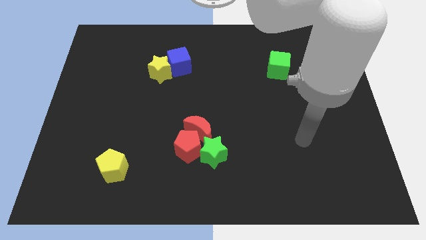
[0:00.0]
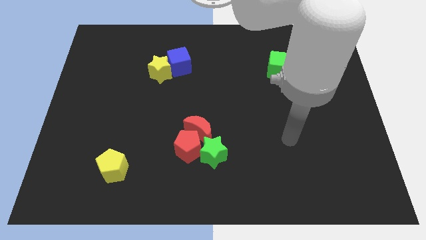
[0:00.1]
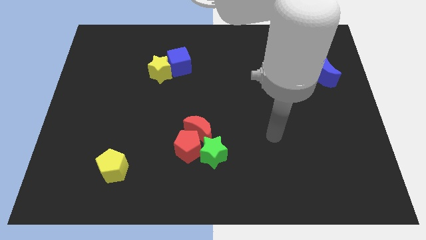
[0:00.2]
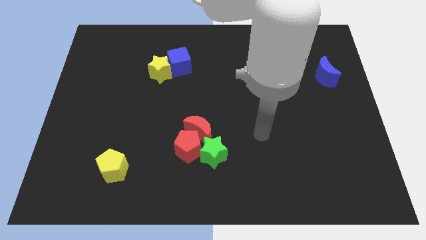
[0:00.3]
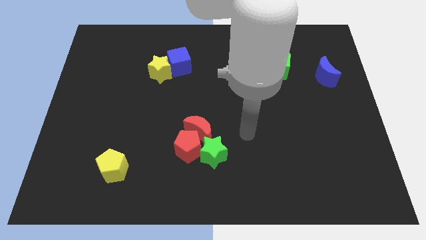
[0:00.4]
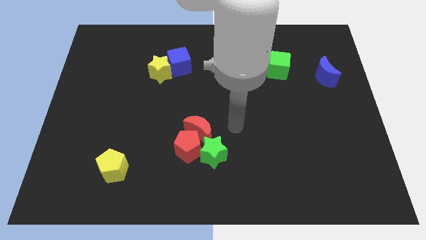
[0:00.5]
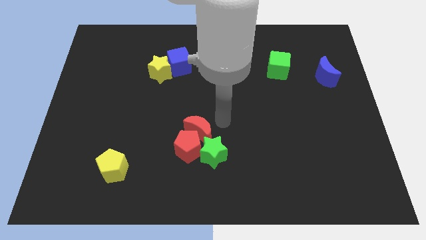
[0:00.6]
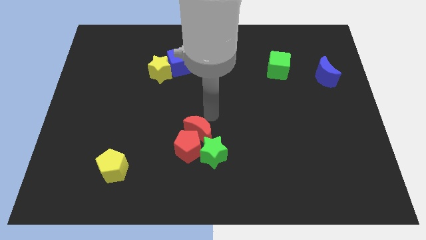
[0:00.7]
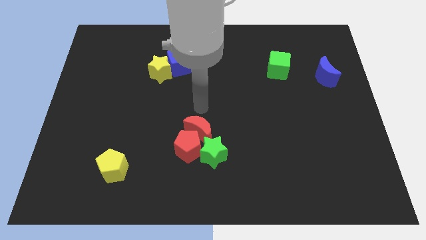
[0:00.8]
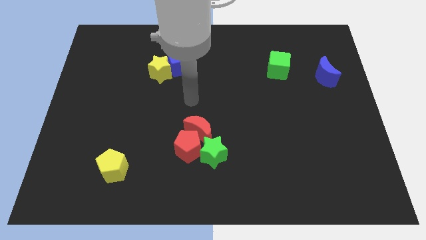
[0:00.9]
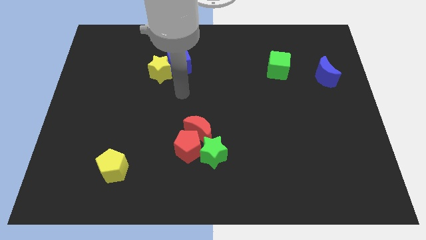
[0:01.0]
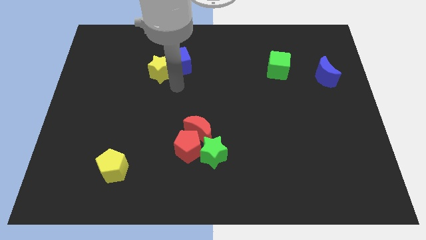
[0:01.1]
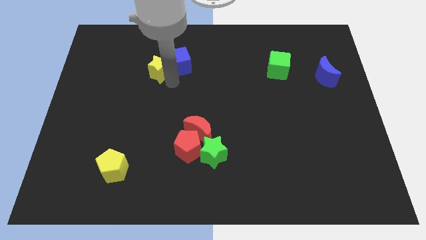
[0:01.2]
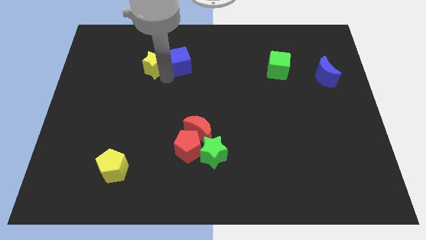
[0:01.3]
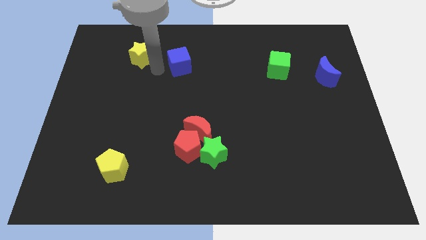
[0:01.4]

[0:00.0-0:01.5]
pull the blue cube apart from the yellow star

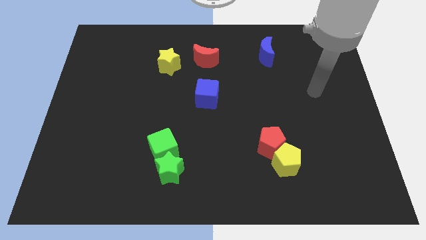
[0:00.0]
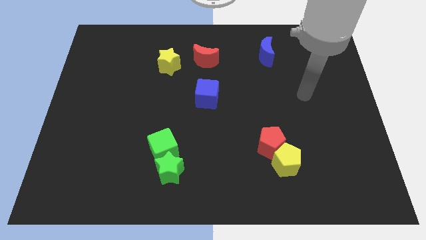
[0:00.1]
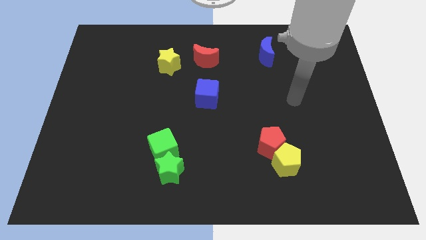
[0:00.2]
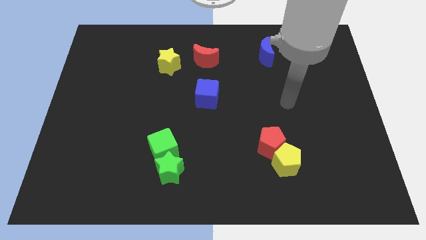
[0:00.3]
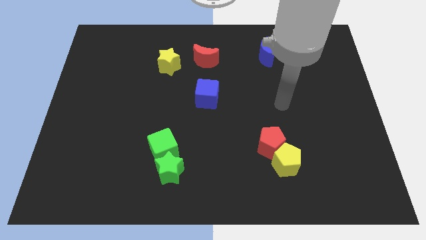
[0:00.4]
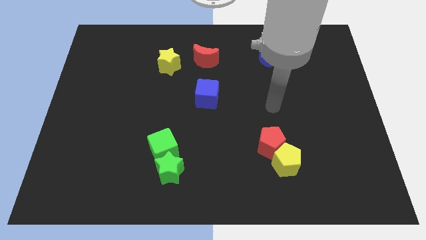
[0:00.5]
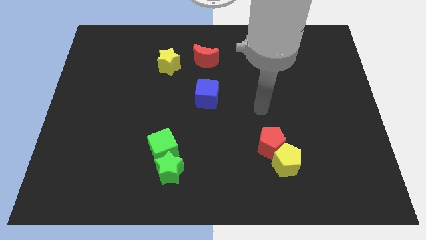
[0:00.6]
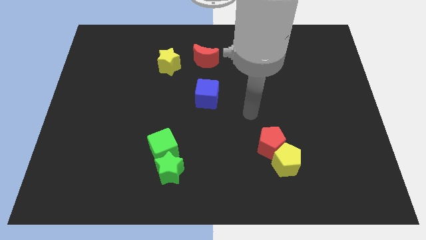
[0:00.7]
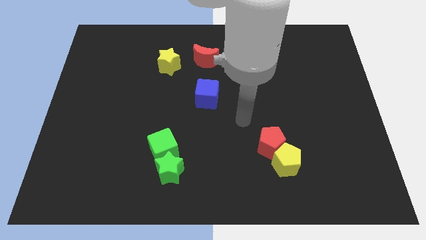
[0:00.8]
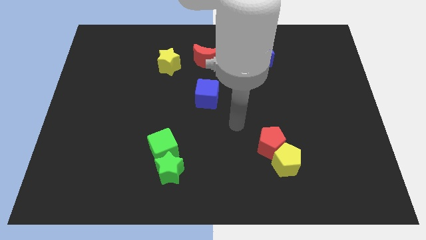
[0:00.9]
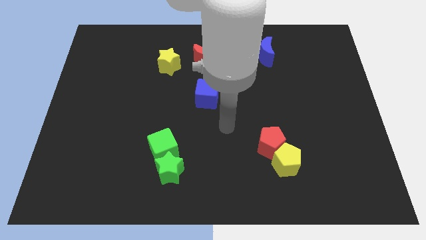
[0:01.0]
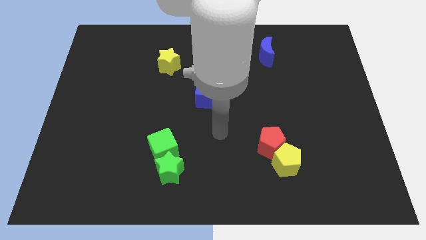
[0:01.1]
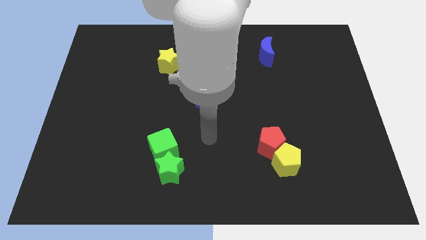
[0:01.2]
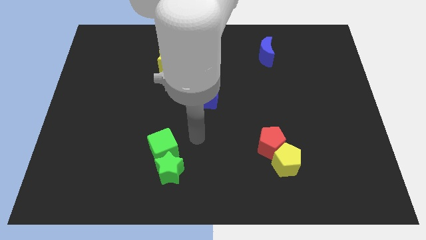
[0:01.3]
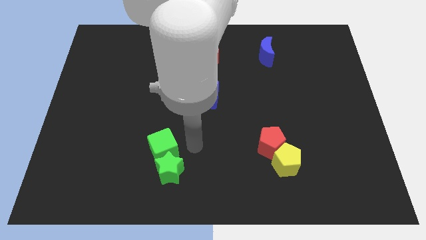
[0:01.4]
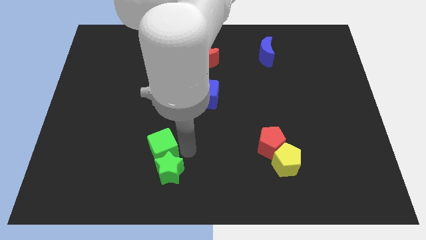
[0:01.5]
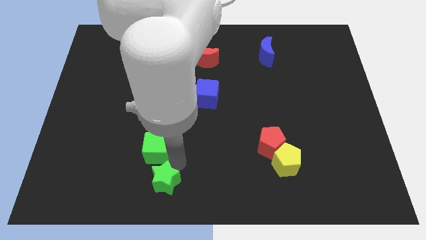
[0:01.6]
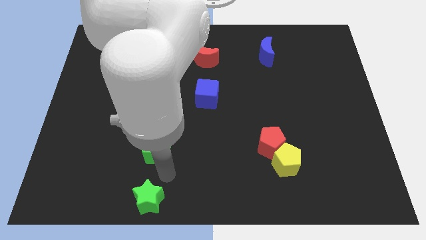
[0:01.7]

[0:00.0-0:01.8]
separate the green cube from the green star

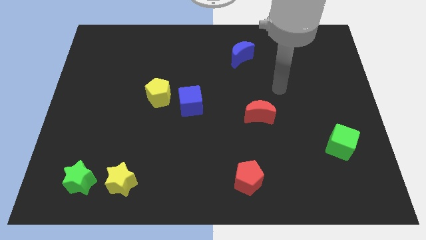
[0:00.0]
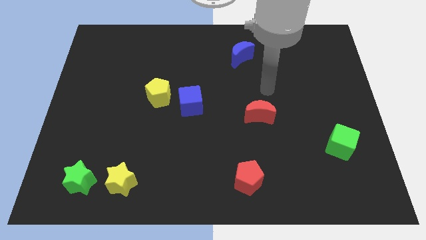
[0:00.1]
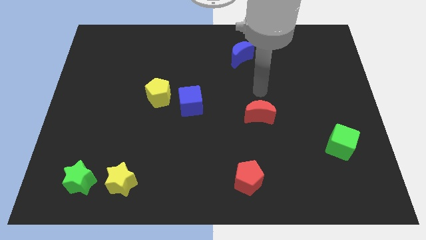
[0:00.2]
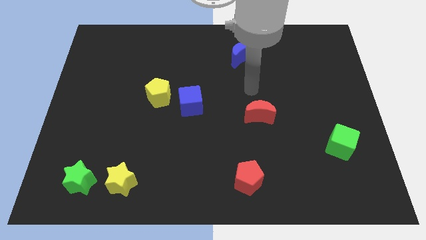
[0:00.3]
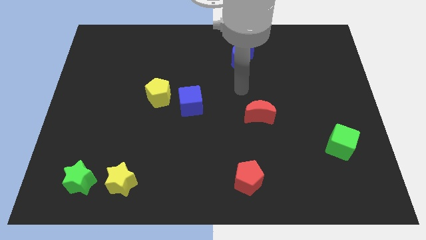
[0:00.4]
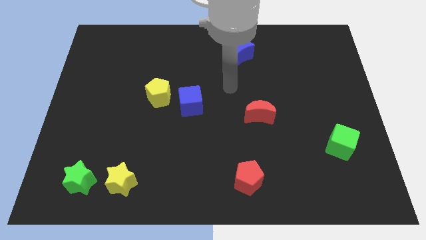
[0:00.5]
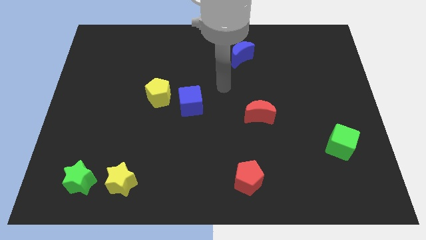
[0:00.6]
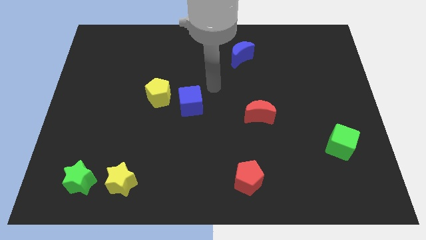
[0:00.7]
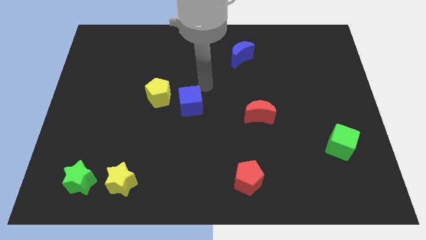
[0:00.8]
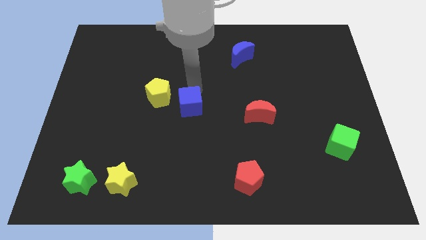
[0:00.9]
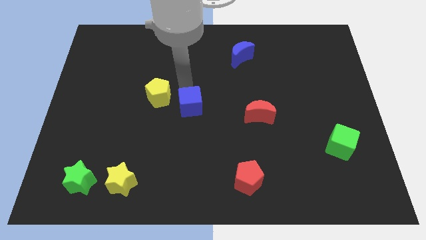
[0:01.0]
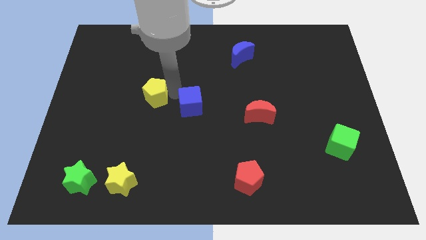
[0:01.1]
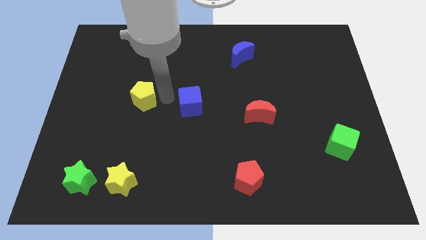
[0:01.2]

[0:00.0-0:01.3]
pull the blue cube apart from the yellow pentagon

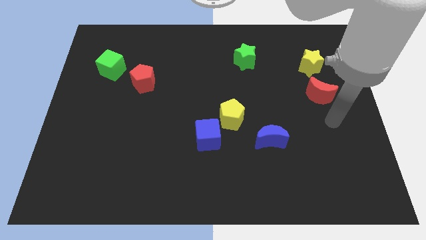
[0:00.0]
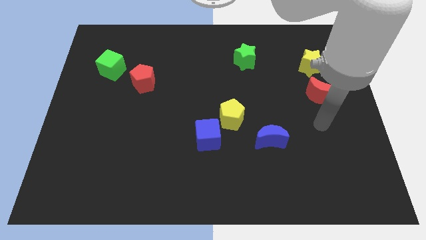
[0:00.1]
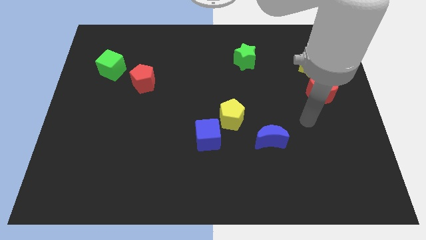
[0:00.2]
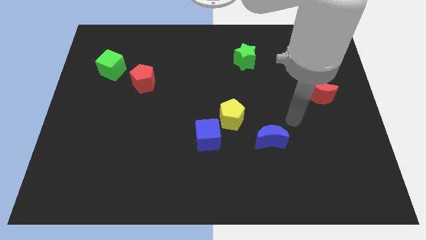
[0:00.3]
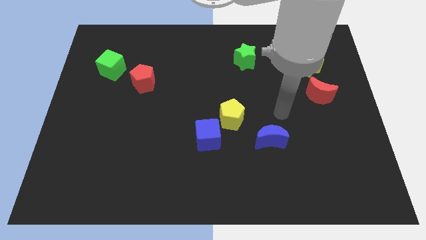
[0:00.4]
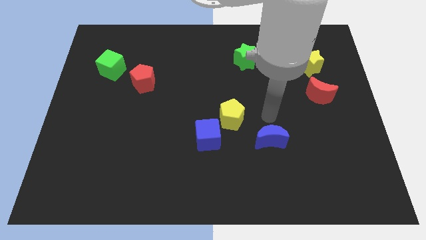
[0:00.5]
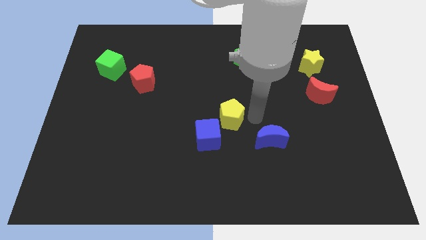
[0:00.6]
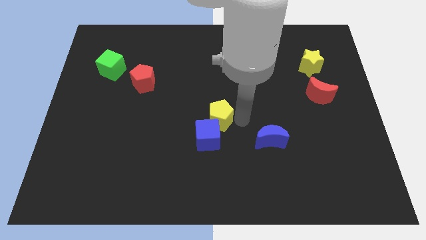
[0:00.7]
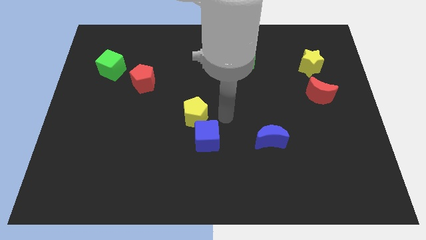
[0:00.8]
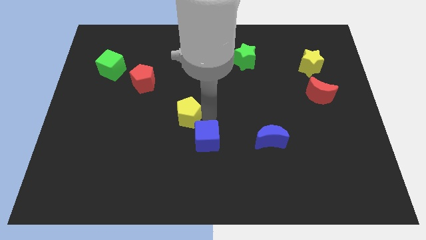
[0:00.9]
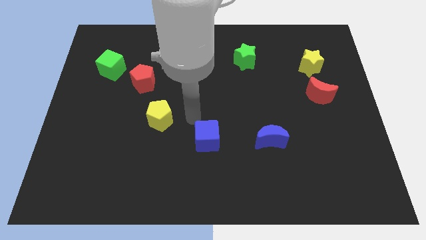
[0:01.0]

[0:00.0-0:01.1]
move the blue cube away from the yellow pentagon

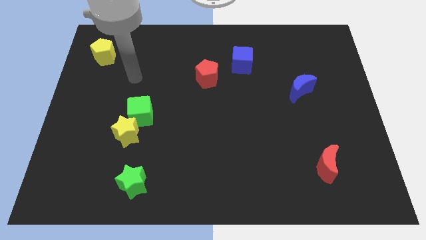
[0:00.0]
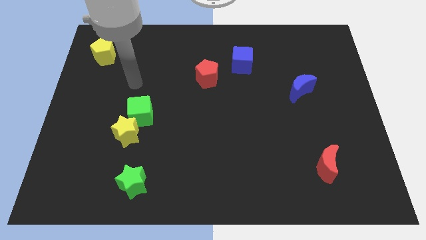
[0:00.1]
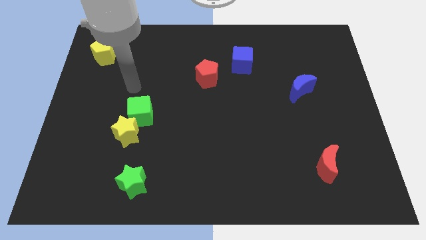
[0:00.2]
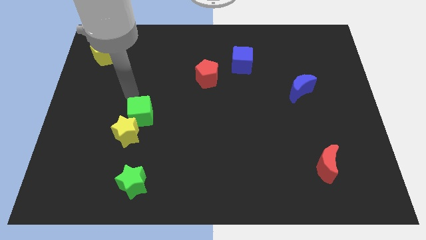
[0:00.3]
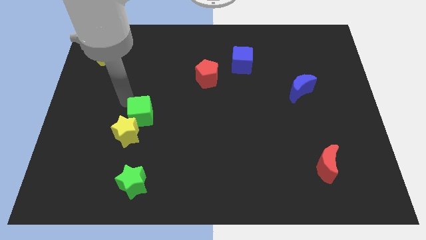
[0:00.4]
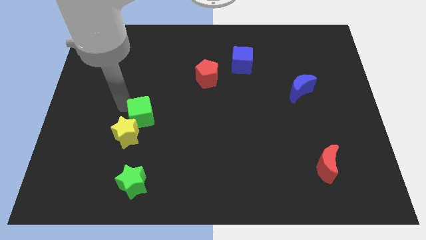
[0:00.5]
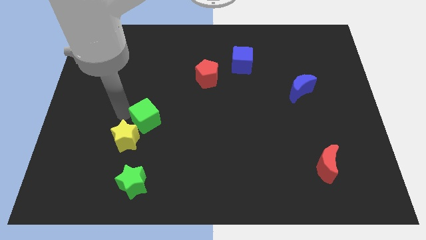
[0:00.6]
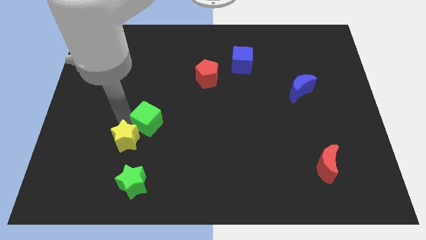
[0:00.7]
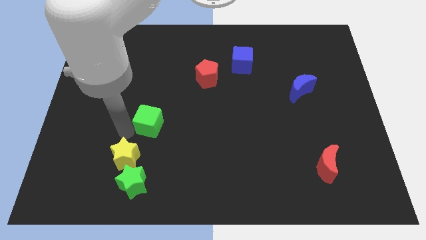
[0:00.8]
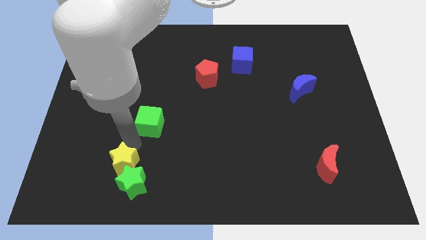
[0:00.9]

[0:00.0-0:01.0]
separate the green cube from the yellow star

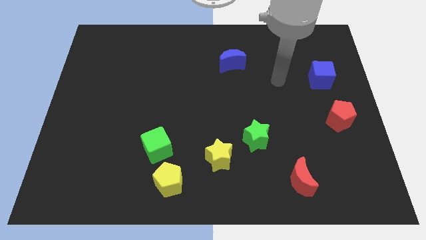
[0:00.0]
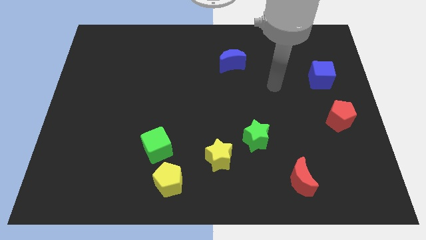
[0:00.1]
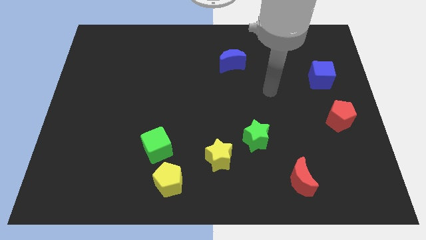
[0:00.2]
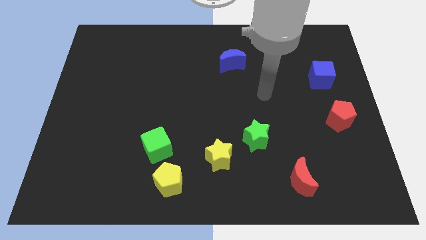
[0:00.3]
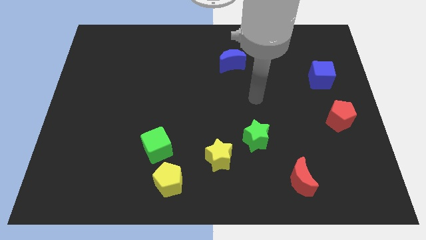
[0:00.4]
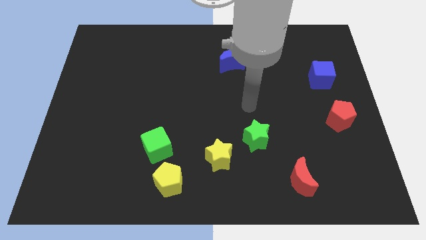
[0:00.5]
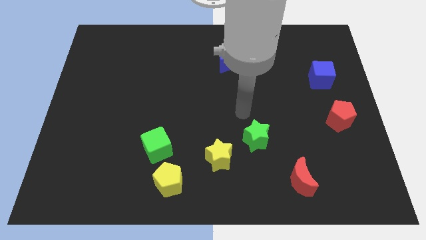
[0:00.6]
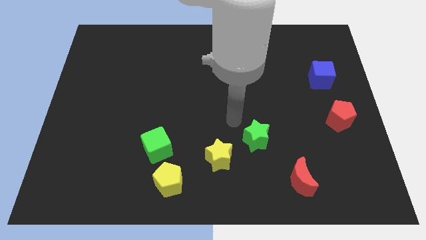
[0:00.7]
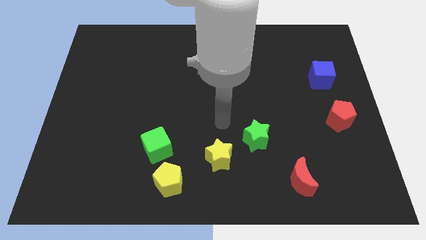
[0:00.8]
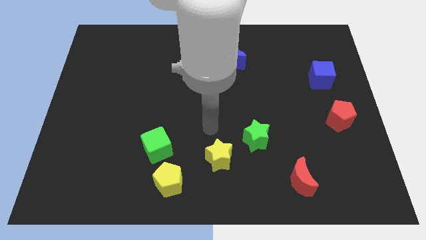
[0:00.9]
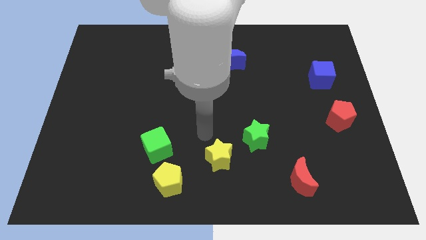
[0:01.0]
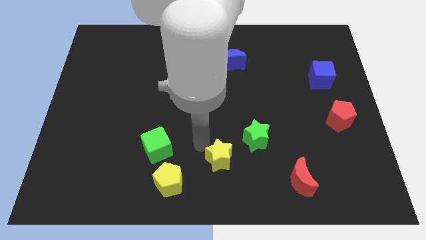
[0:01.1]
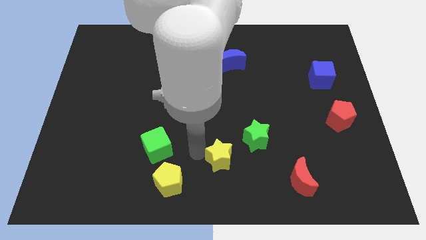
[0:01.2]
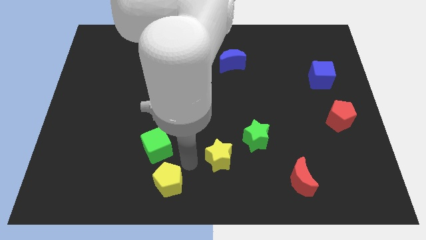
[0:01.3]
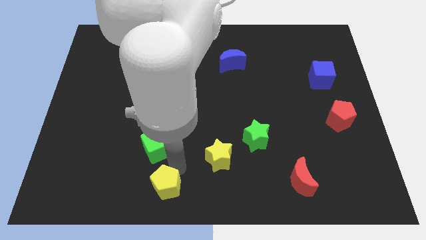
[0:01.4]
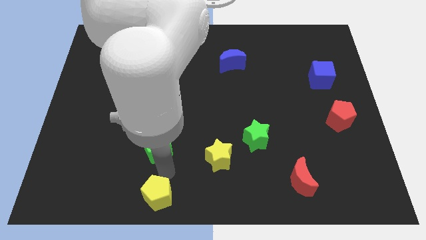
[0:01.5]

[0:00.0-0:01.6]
pull the green cube apart from the yellow pentagon

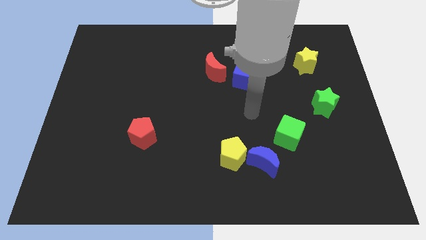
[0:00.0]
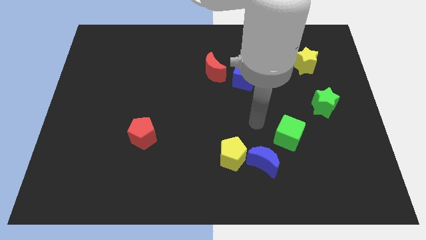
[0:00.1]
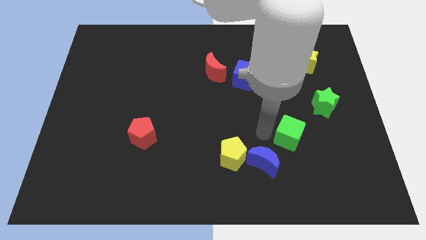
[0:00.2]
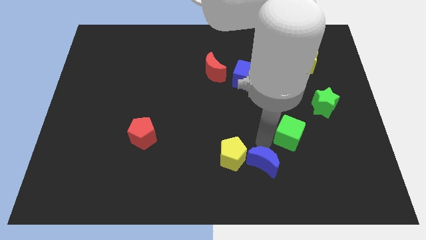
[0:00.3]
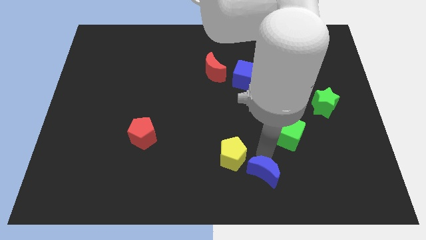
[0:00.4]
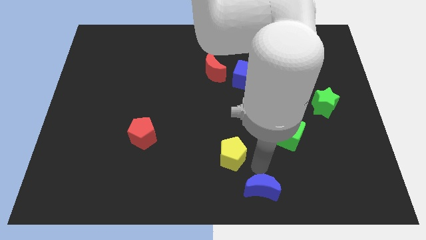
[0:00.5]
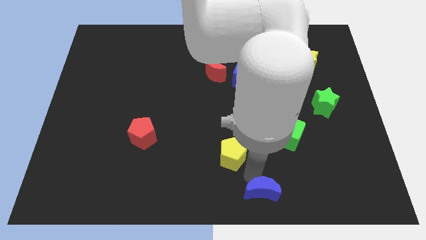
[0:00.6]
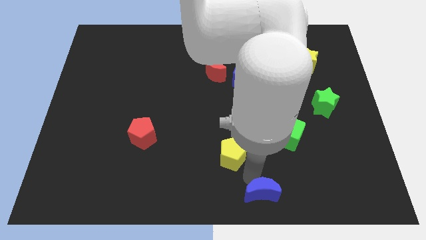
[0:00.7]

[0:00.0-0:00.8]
move the yellow pentagon away from the blue moon

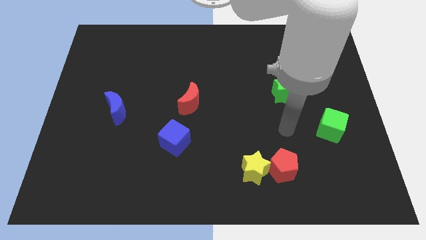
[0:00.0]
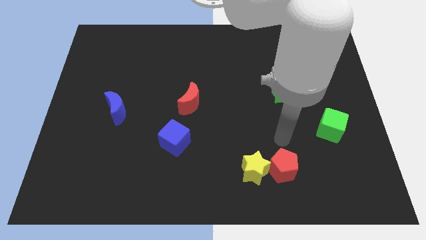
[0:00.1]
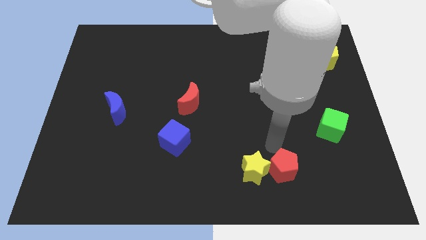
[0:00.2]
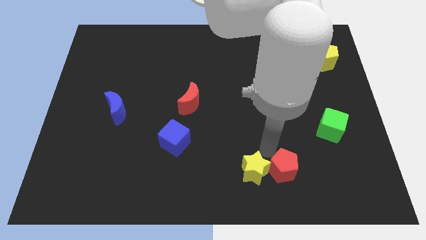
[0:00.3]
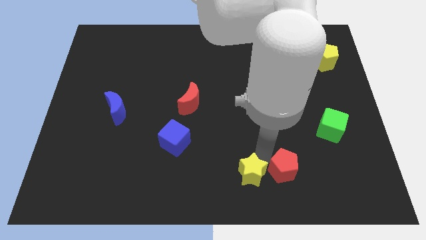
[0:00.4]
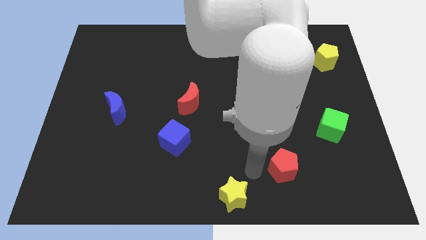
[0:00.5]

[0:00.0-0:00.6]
separate the red pentagon from the yellow star
